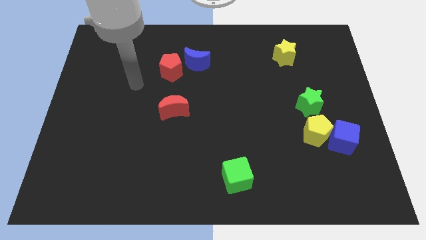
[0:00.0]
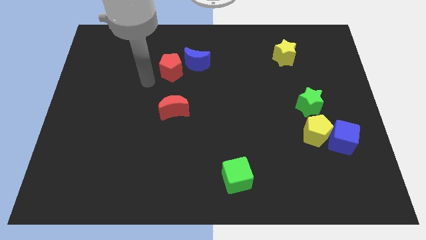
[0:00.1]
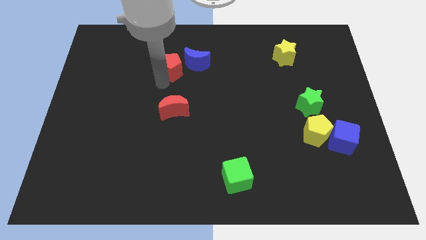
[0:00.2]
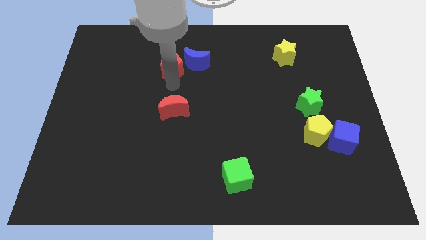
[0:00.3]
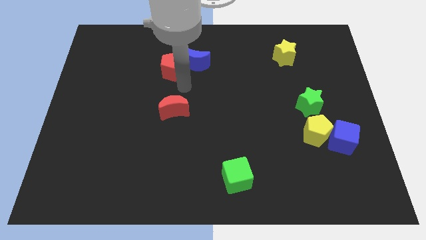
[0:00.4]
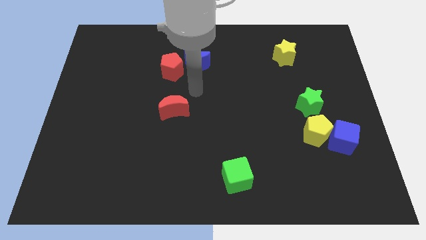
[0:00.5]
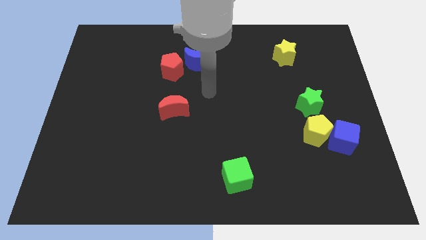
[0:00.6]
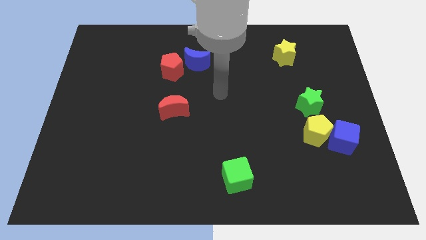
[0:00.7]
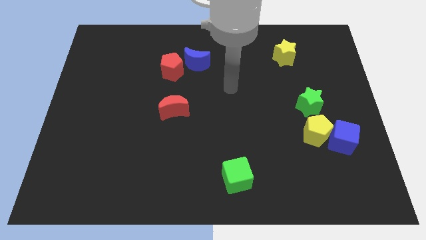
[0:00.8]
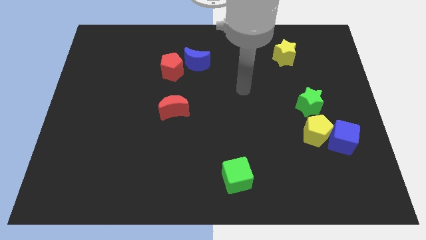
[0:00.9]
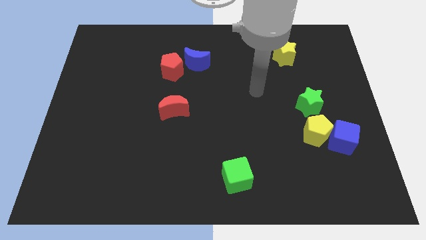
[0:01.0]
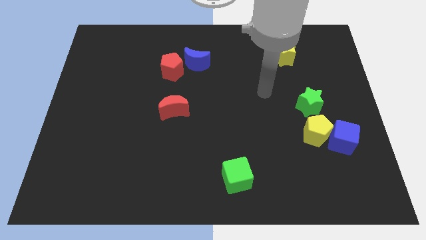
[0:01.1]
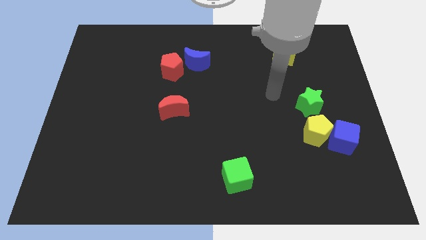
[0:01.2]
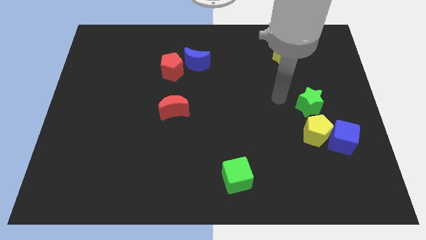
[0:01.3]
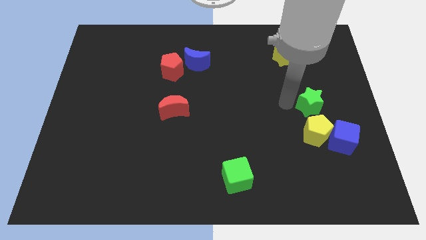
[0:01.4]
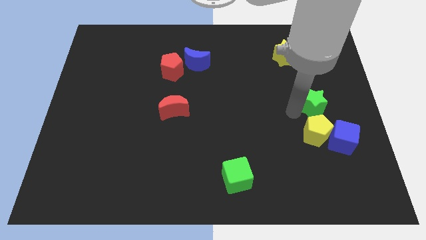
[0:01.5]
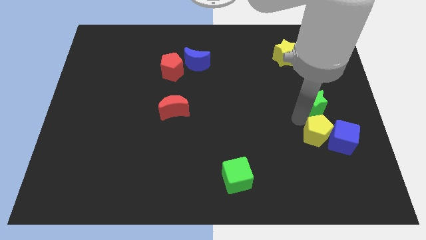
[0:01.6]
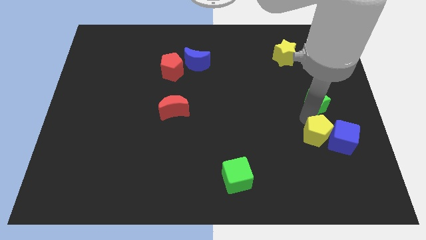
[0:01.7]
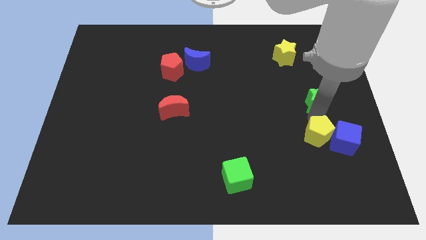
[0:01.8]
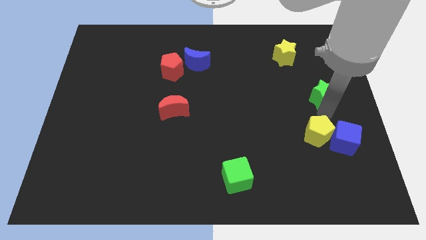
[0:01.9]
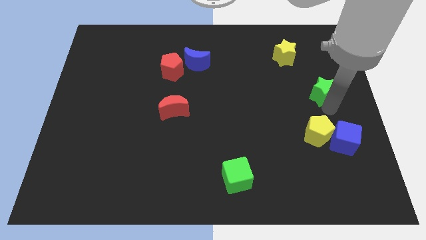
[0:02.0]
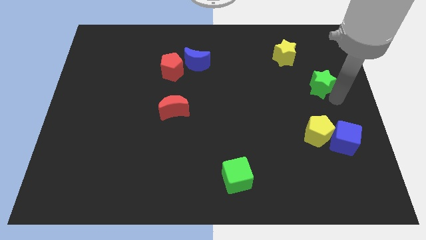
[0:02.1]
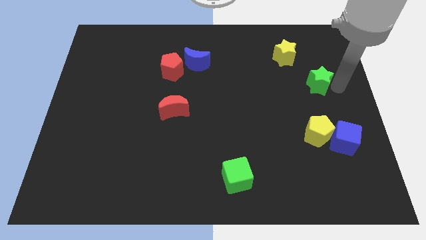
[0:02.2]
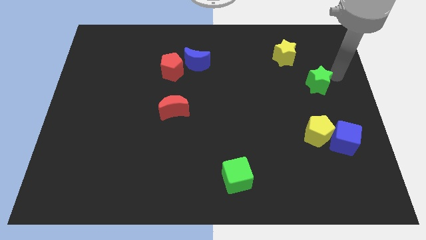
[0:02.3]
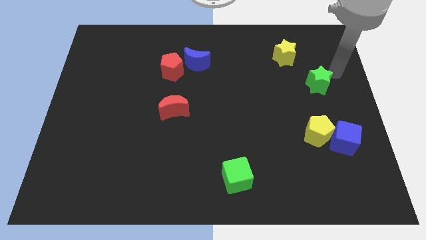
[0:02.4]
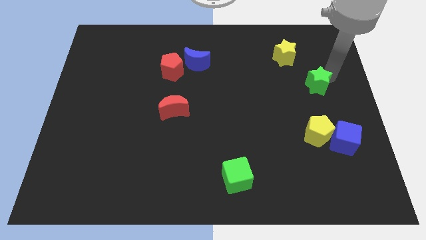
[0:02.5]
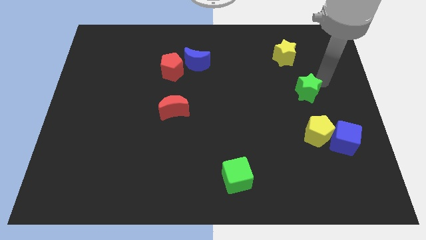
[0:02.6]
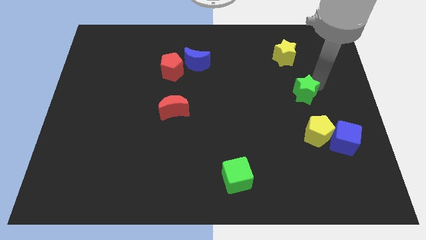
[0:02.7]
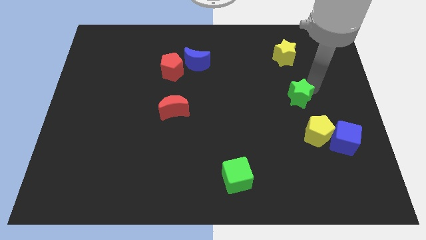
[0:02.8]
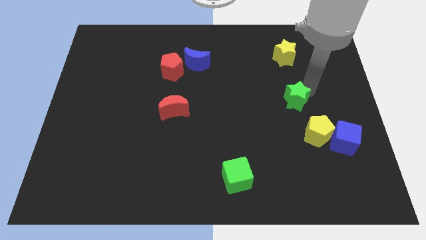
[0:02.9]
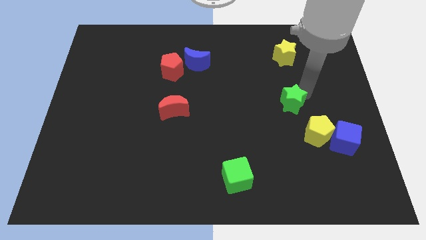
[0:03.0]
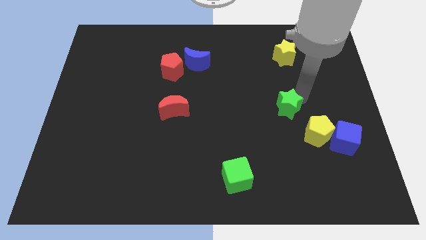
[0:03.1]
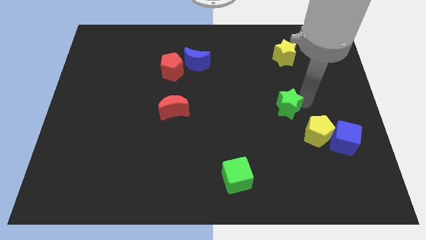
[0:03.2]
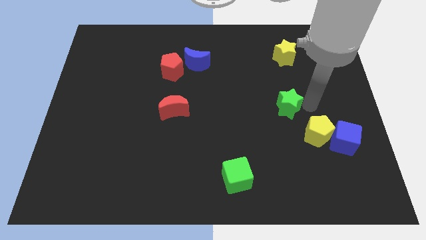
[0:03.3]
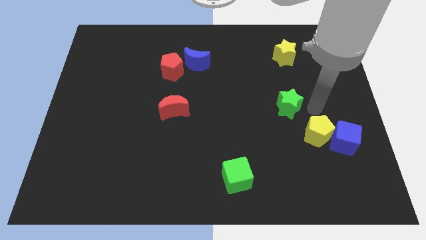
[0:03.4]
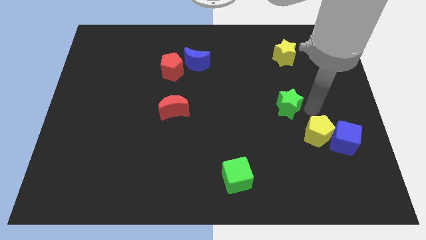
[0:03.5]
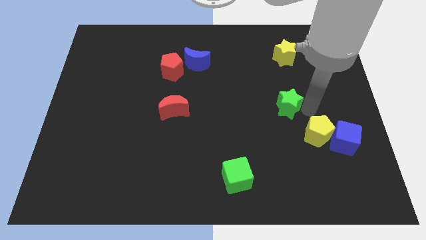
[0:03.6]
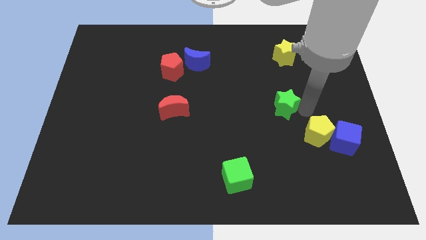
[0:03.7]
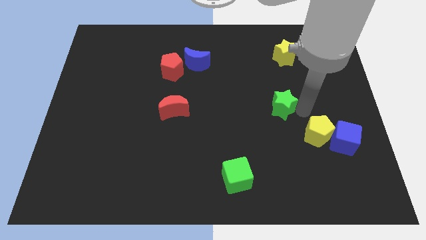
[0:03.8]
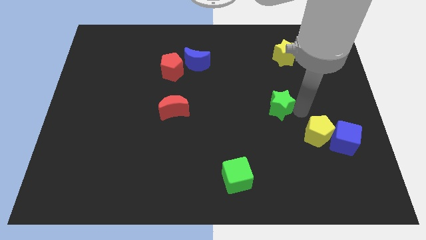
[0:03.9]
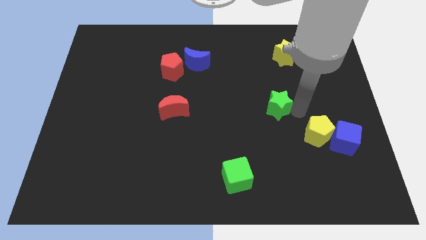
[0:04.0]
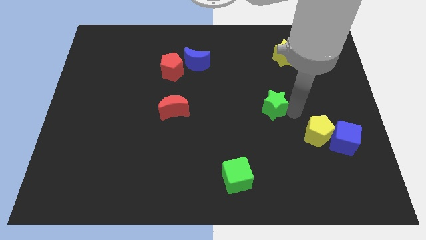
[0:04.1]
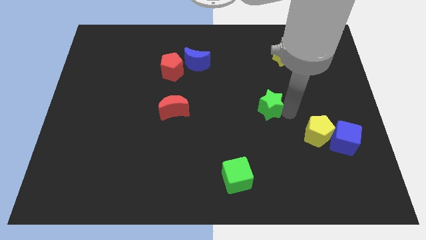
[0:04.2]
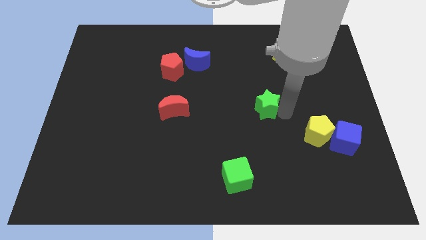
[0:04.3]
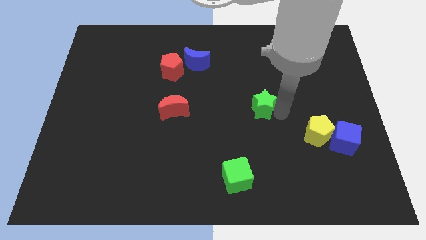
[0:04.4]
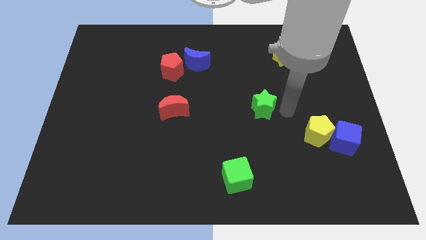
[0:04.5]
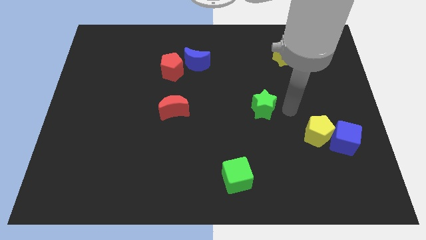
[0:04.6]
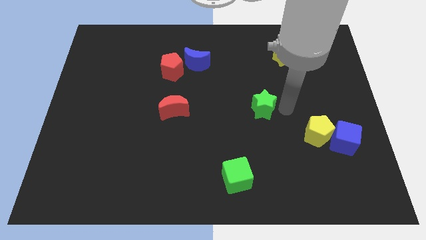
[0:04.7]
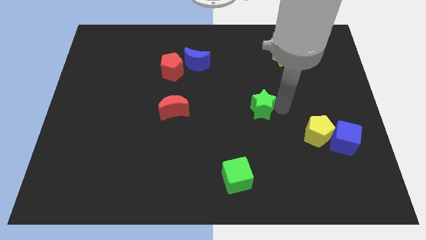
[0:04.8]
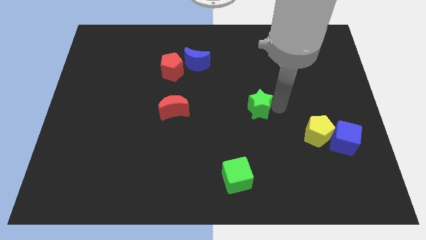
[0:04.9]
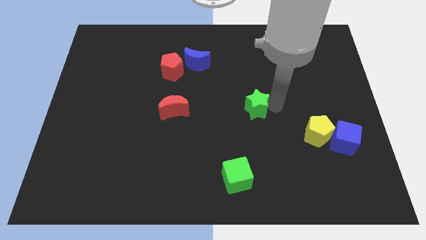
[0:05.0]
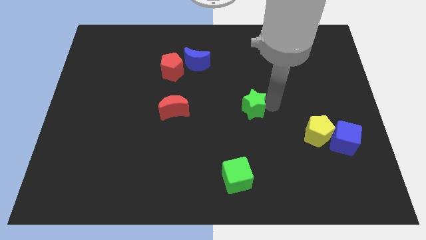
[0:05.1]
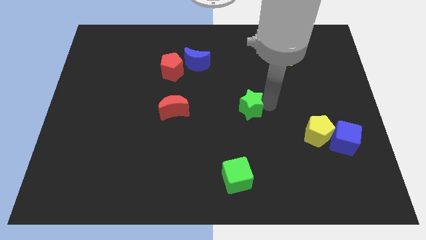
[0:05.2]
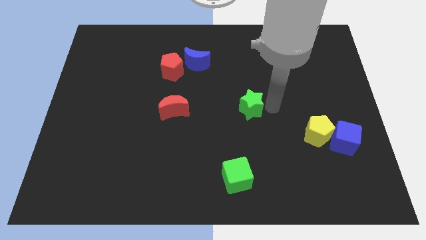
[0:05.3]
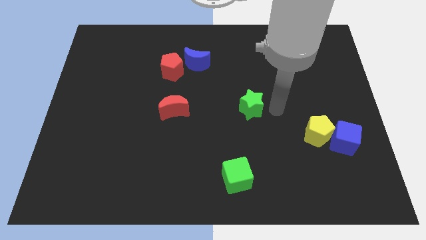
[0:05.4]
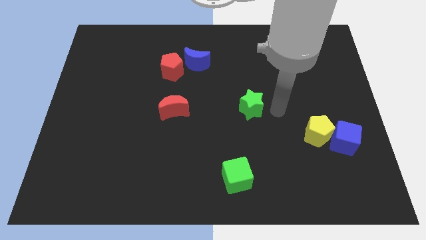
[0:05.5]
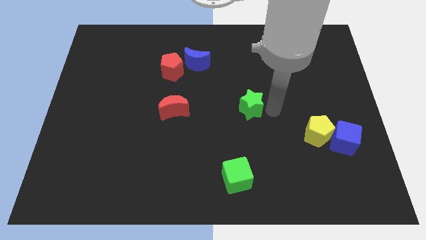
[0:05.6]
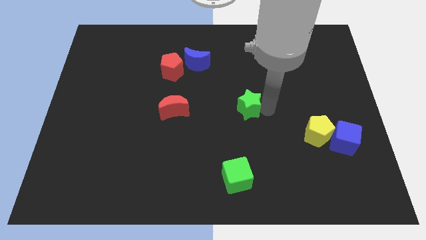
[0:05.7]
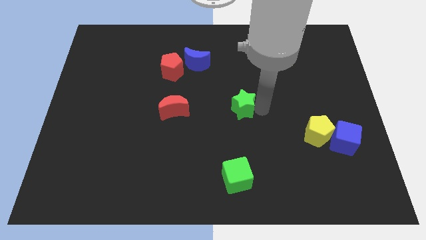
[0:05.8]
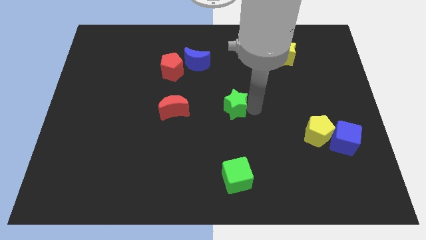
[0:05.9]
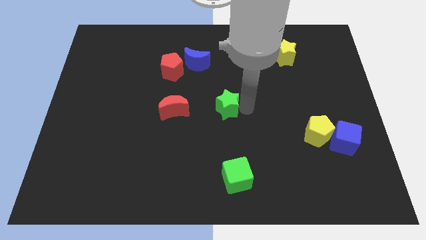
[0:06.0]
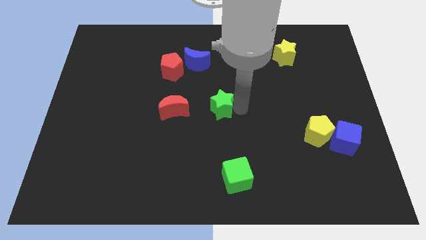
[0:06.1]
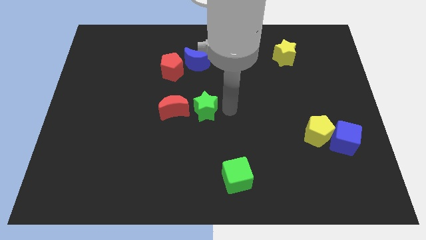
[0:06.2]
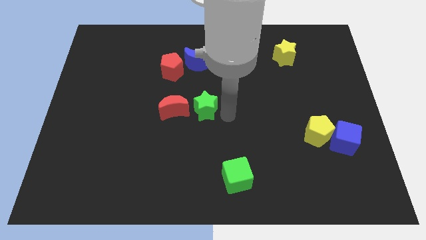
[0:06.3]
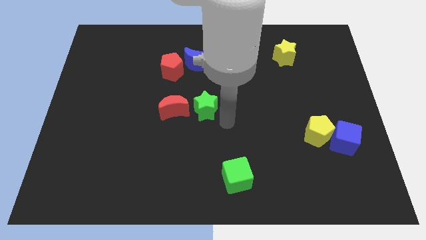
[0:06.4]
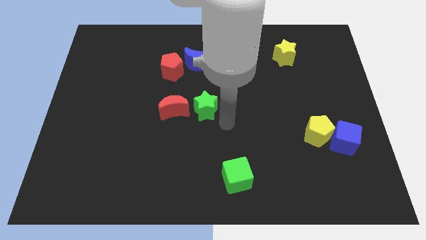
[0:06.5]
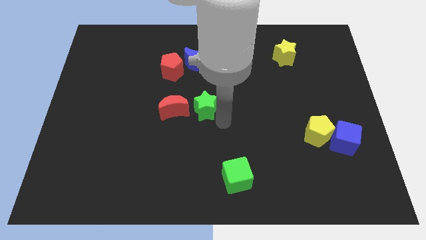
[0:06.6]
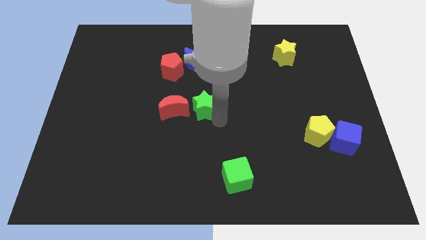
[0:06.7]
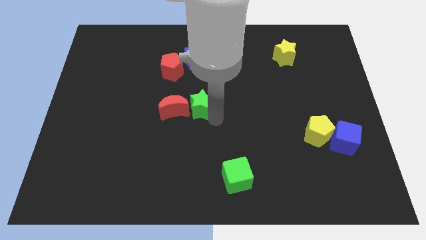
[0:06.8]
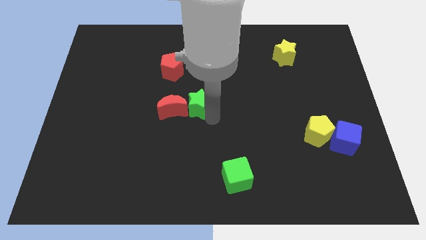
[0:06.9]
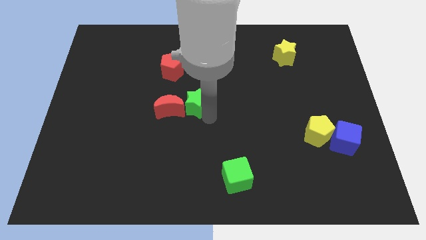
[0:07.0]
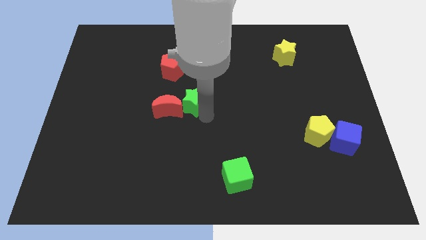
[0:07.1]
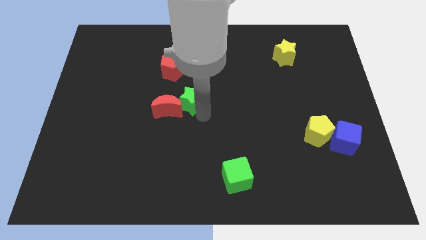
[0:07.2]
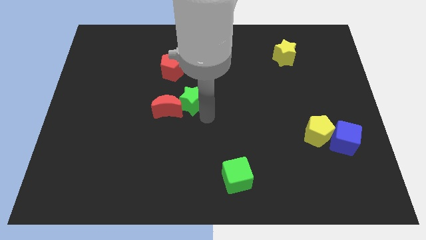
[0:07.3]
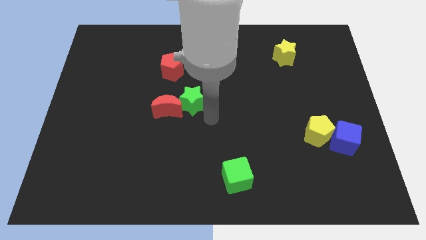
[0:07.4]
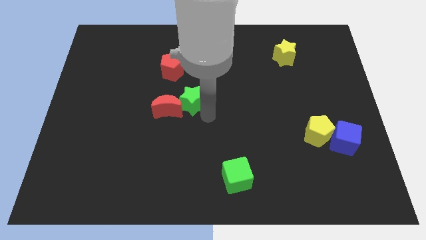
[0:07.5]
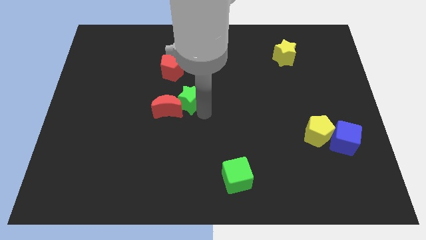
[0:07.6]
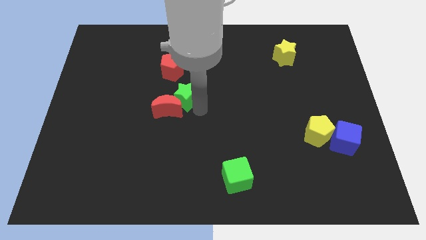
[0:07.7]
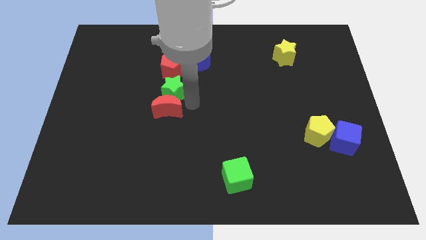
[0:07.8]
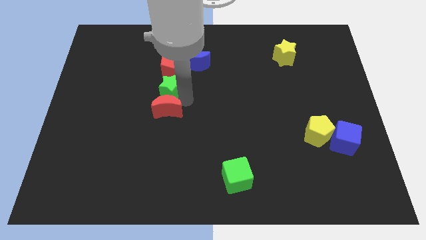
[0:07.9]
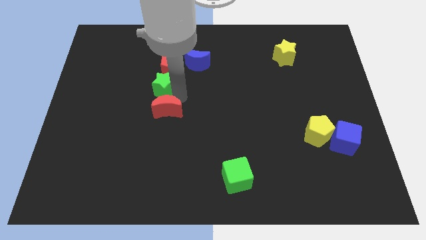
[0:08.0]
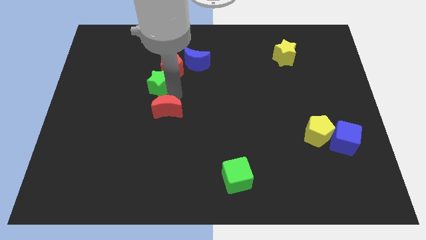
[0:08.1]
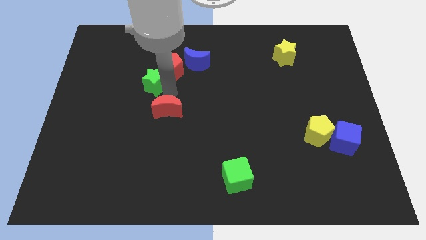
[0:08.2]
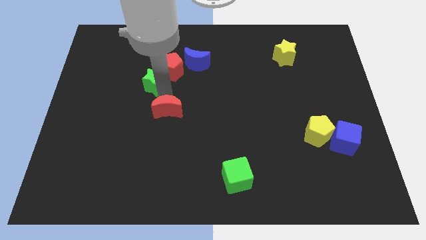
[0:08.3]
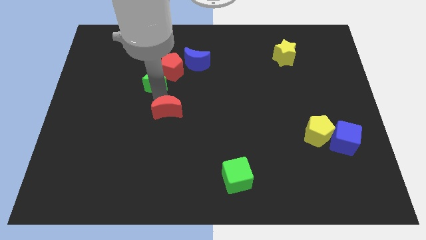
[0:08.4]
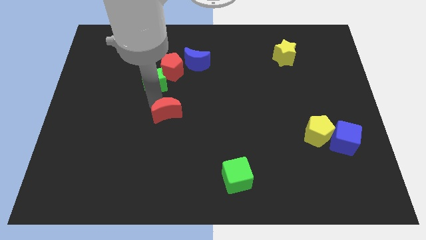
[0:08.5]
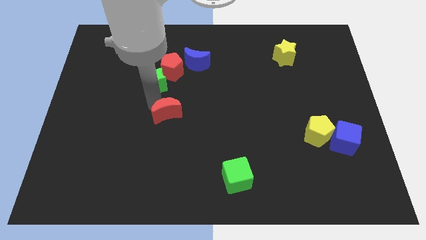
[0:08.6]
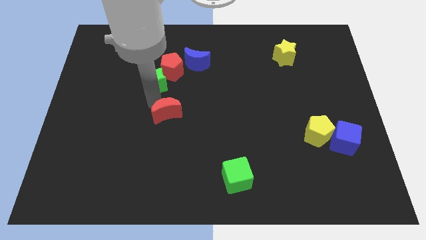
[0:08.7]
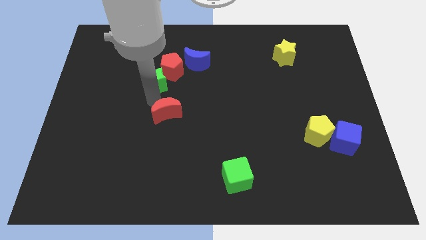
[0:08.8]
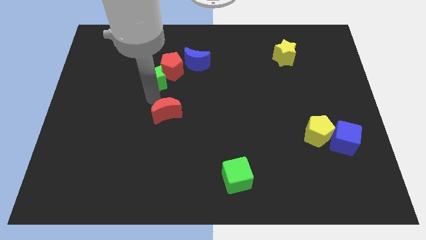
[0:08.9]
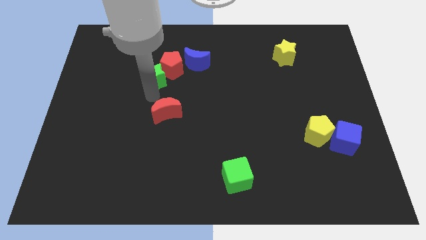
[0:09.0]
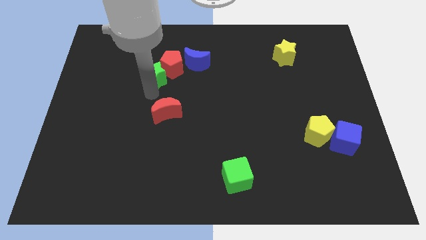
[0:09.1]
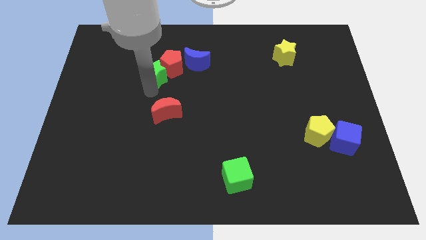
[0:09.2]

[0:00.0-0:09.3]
move the green star just left of the blue moon
